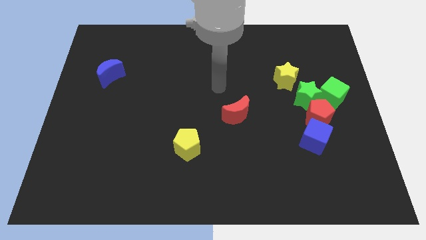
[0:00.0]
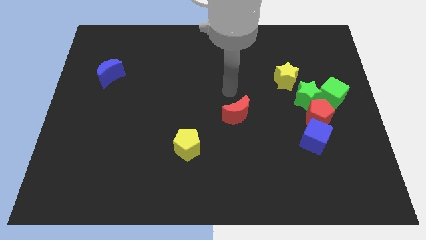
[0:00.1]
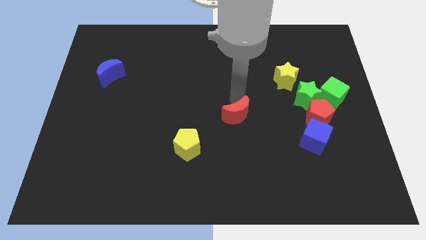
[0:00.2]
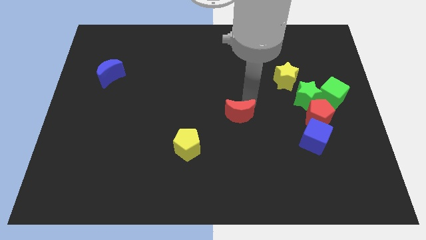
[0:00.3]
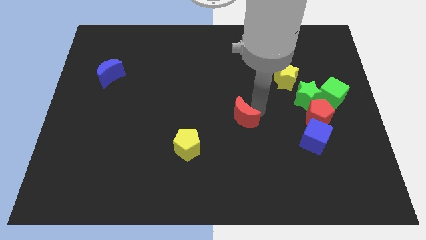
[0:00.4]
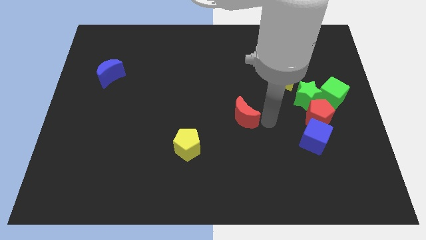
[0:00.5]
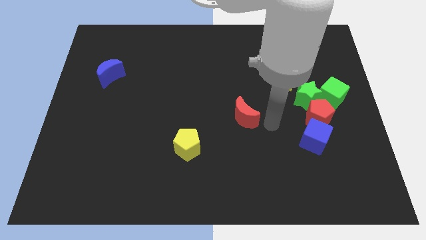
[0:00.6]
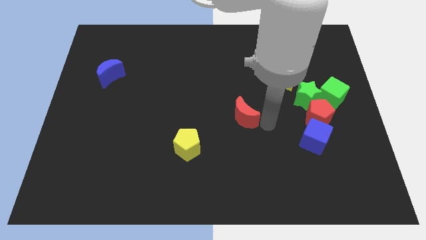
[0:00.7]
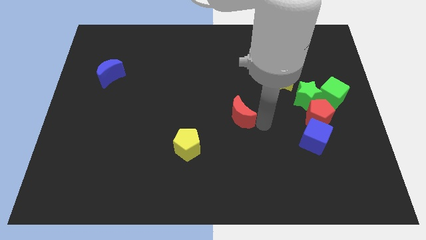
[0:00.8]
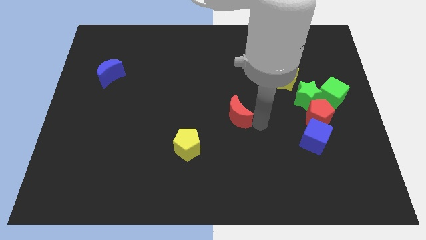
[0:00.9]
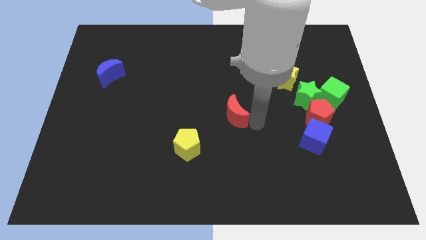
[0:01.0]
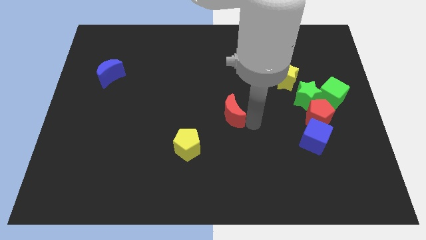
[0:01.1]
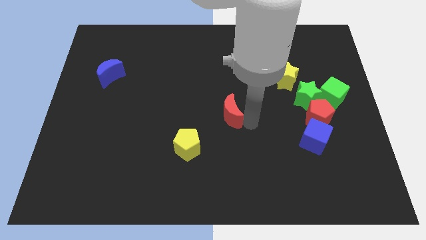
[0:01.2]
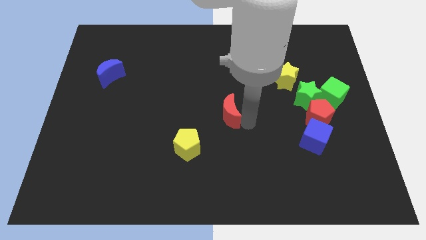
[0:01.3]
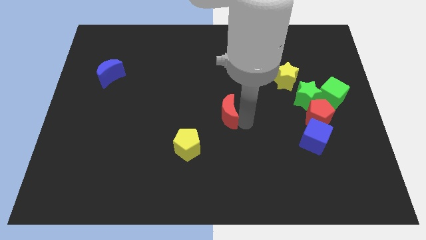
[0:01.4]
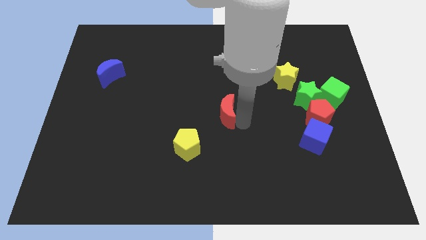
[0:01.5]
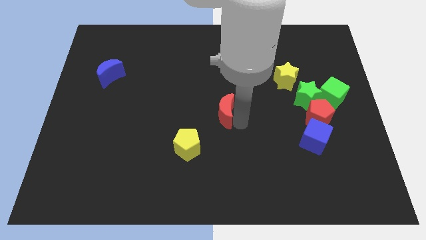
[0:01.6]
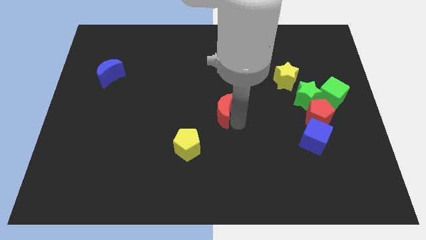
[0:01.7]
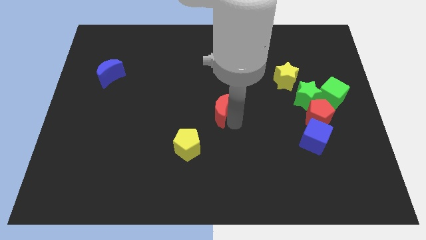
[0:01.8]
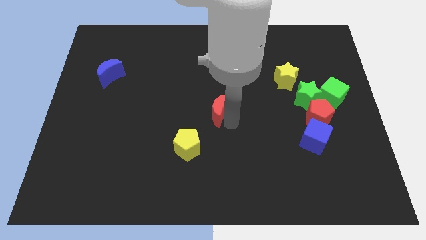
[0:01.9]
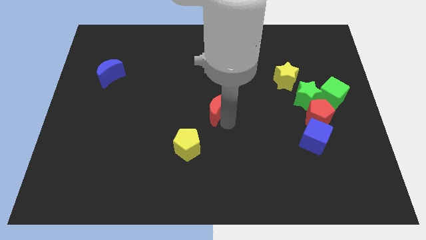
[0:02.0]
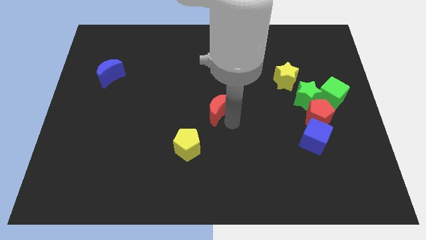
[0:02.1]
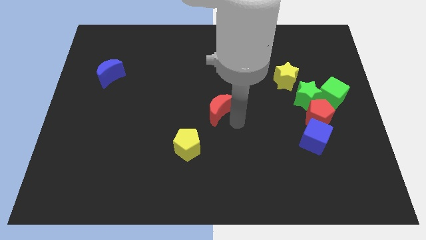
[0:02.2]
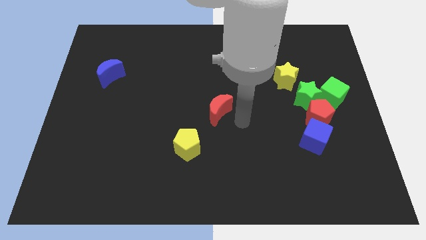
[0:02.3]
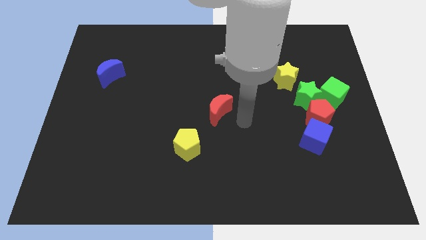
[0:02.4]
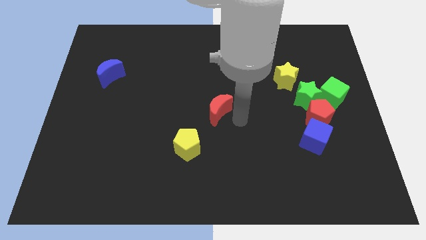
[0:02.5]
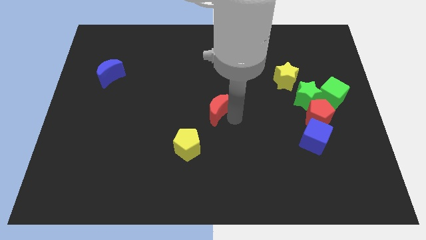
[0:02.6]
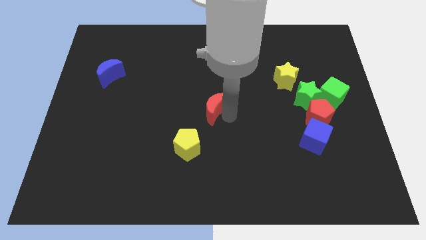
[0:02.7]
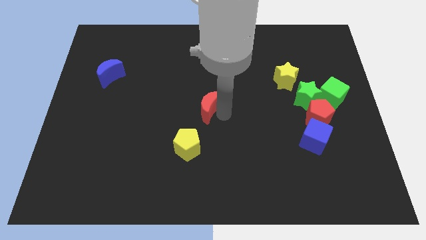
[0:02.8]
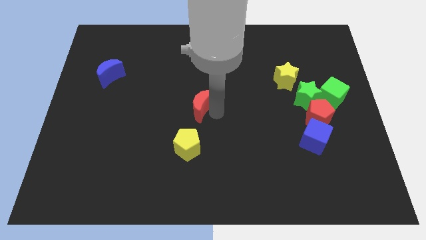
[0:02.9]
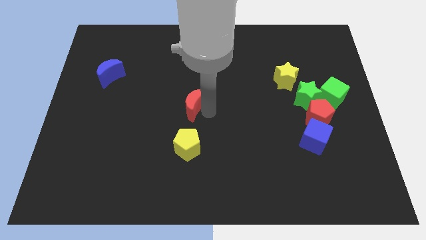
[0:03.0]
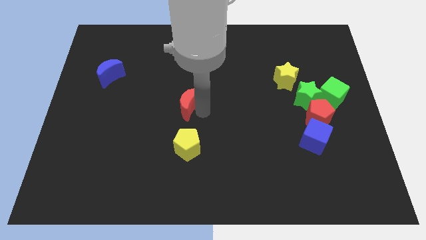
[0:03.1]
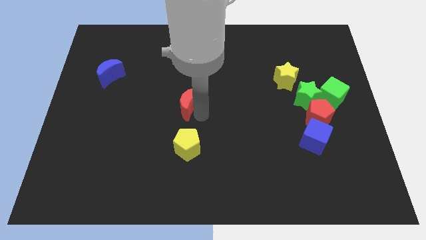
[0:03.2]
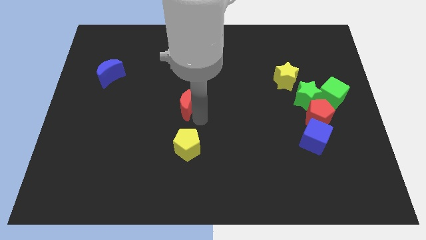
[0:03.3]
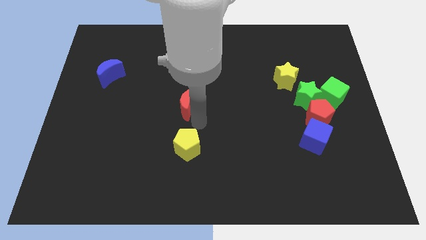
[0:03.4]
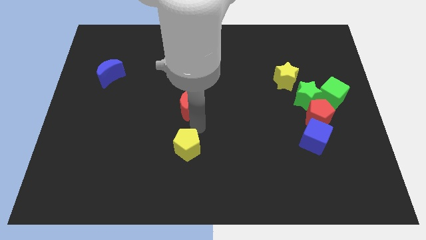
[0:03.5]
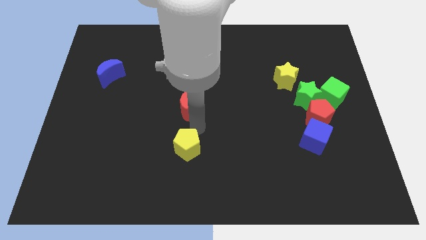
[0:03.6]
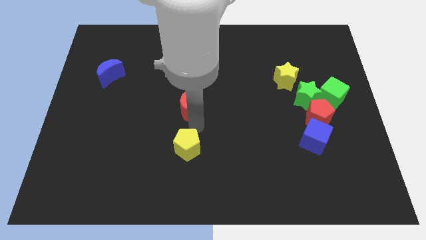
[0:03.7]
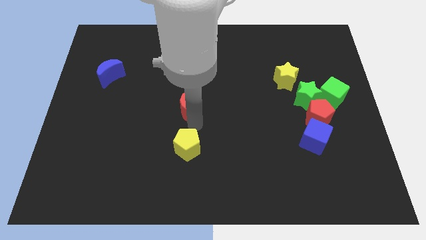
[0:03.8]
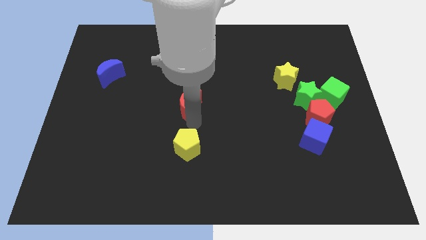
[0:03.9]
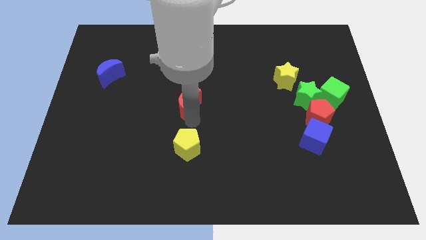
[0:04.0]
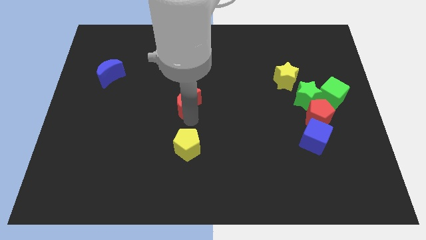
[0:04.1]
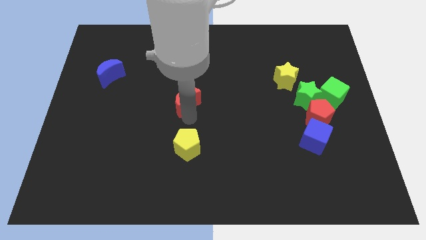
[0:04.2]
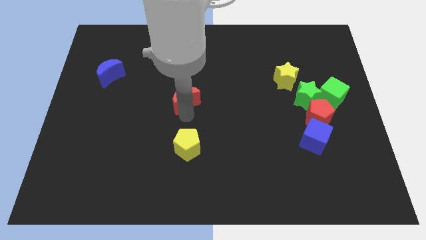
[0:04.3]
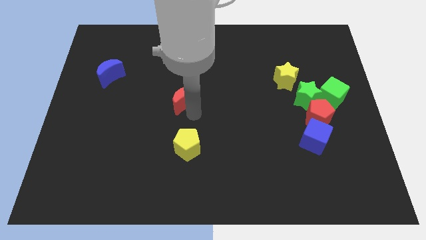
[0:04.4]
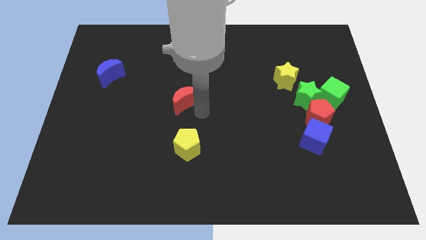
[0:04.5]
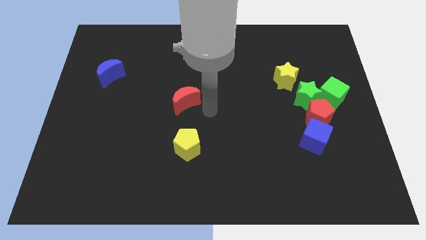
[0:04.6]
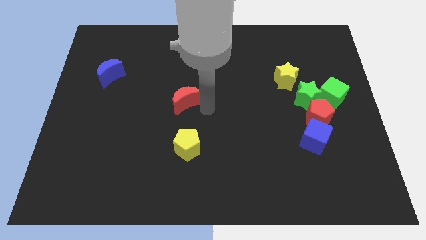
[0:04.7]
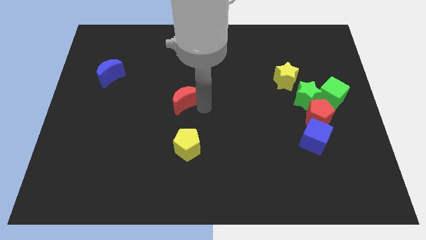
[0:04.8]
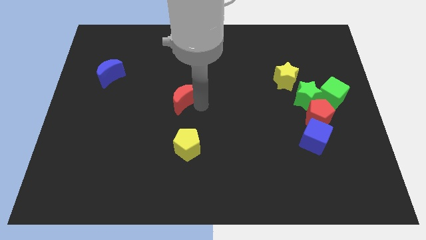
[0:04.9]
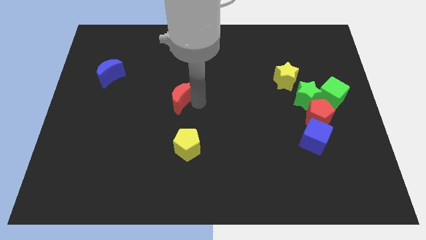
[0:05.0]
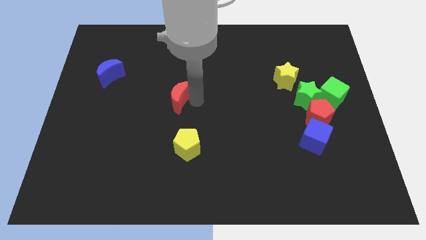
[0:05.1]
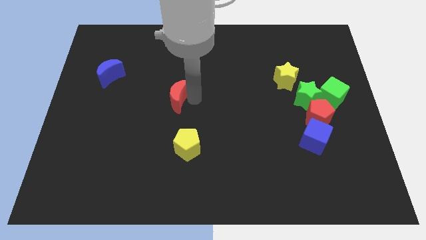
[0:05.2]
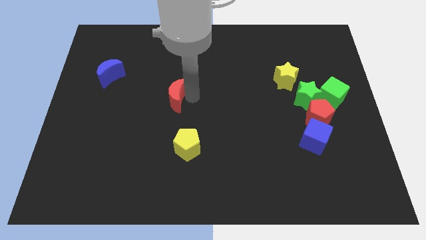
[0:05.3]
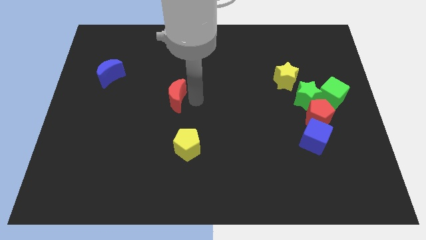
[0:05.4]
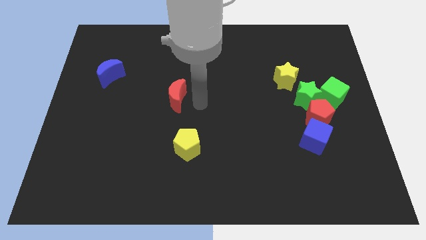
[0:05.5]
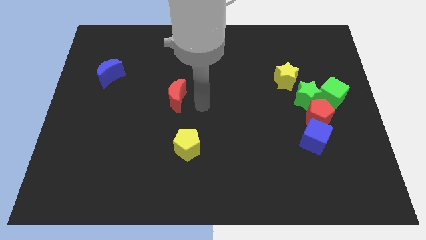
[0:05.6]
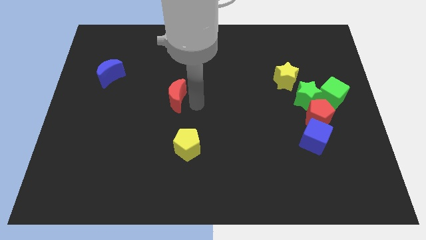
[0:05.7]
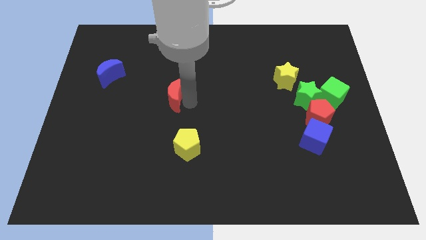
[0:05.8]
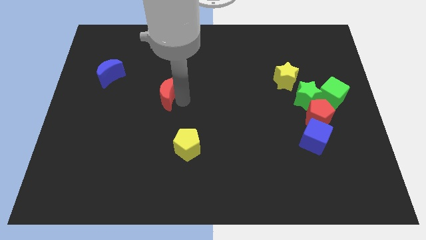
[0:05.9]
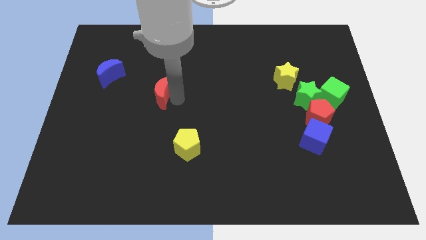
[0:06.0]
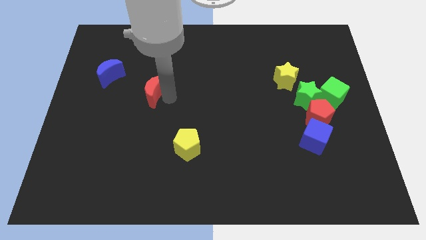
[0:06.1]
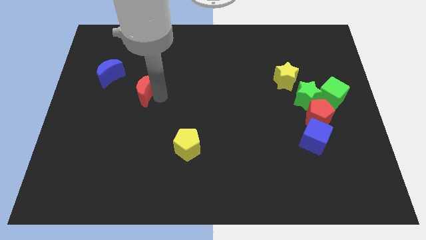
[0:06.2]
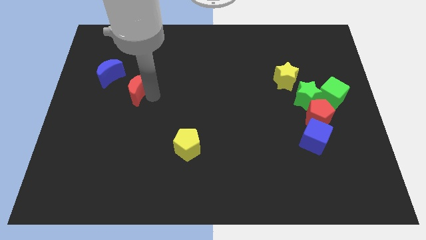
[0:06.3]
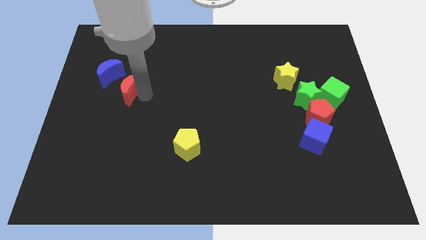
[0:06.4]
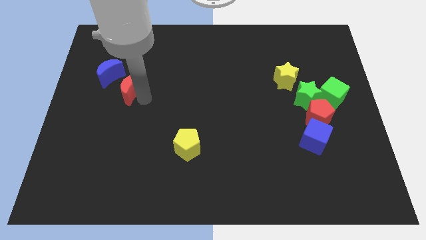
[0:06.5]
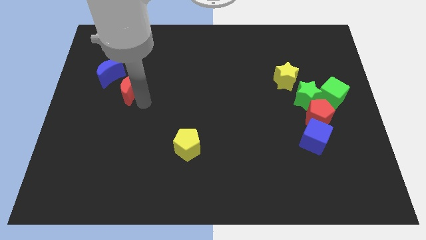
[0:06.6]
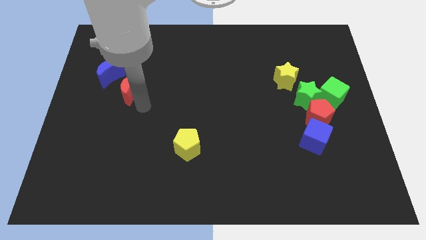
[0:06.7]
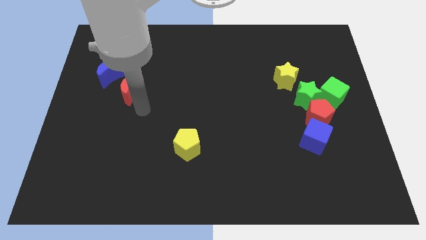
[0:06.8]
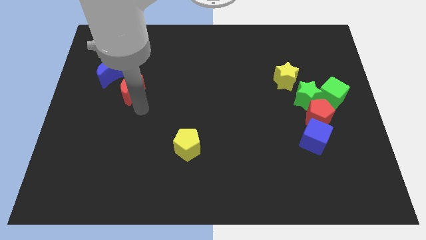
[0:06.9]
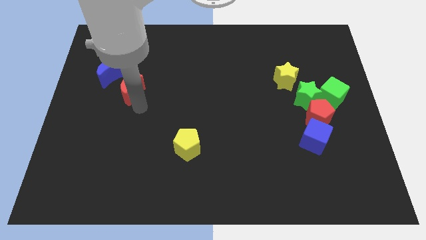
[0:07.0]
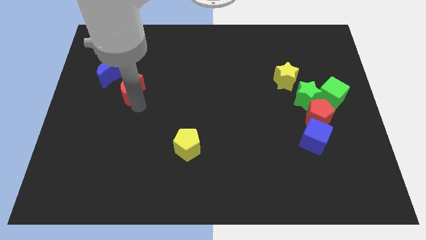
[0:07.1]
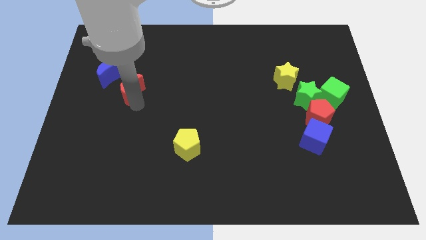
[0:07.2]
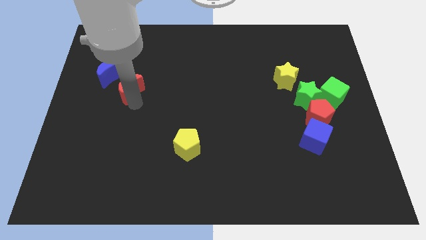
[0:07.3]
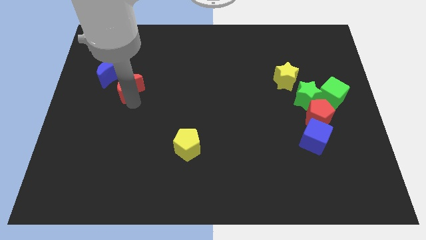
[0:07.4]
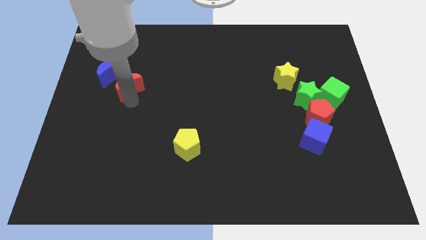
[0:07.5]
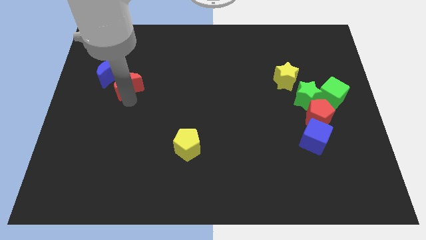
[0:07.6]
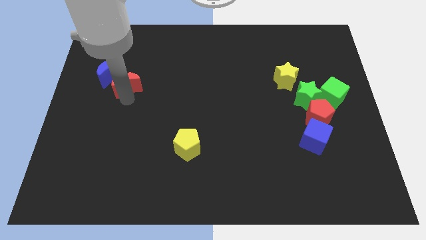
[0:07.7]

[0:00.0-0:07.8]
put the red moon close to the blue moon
